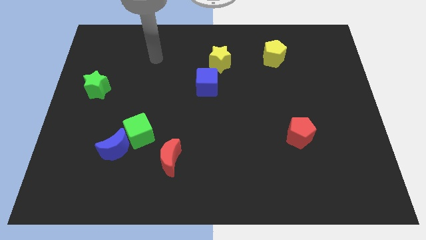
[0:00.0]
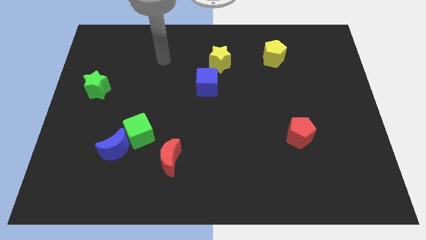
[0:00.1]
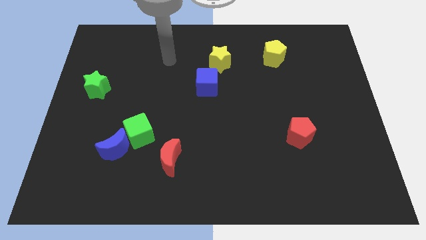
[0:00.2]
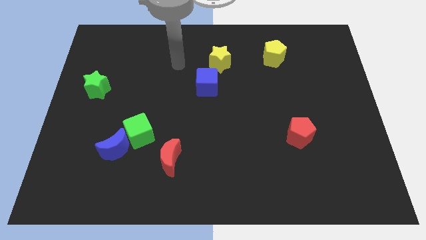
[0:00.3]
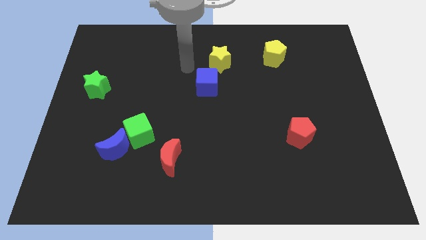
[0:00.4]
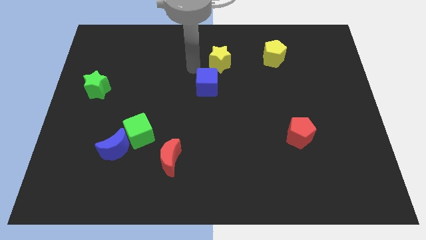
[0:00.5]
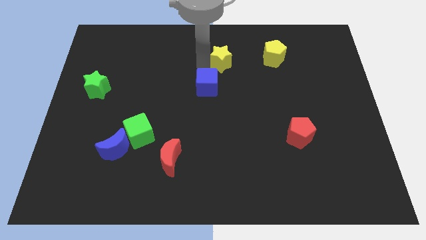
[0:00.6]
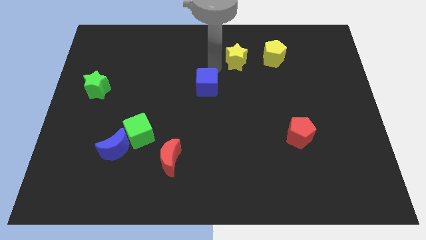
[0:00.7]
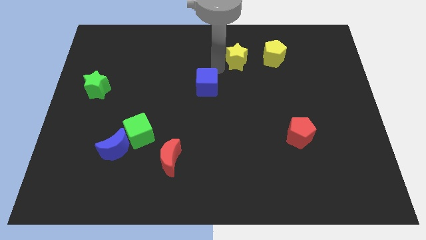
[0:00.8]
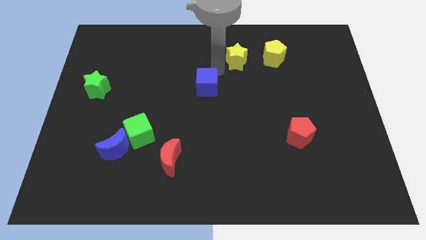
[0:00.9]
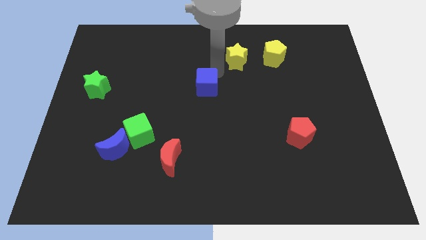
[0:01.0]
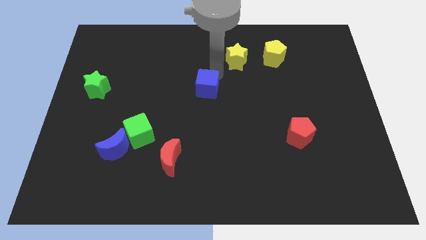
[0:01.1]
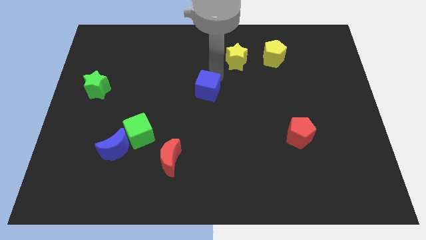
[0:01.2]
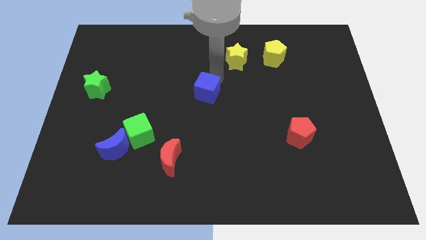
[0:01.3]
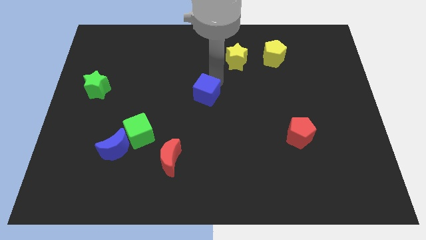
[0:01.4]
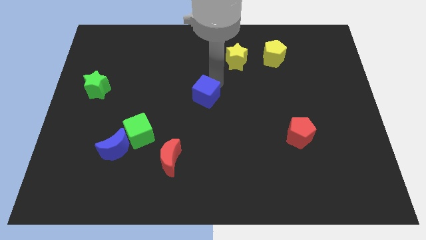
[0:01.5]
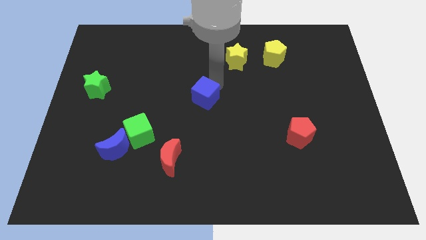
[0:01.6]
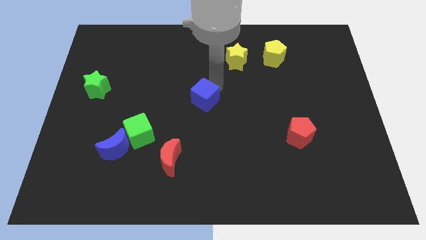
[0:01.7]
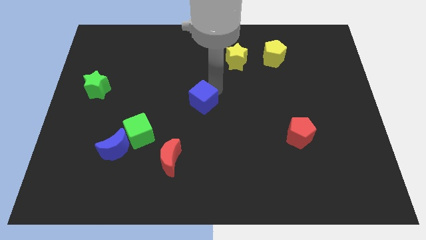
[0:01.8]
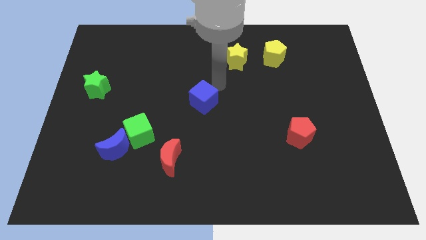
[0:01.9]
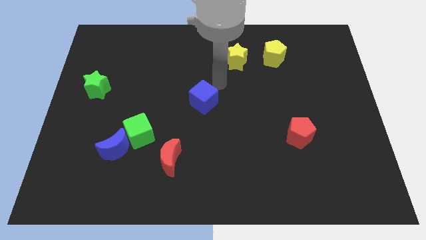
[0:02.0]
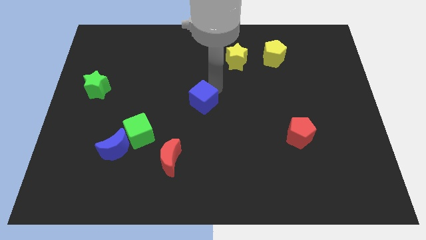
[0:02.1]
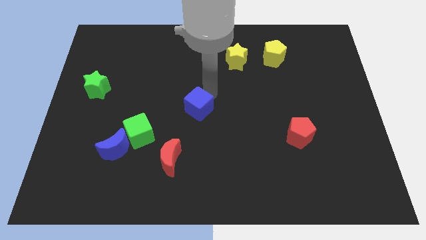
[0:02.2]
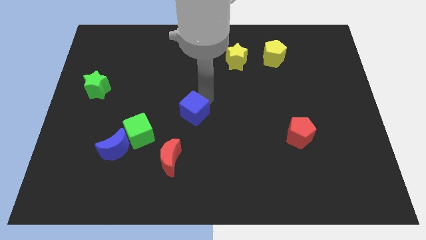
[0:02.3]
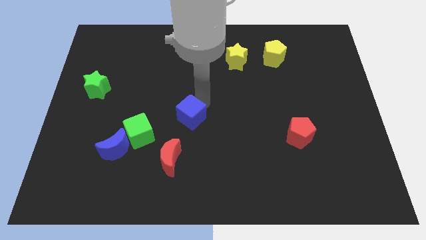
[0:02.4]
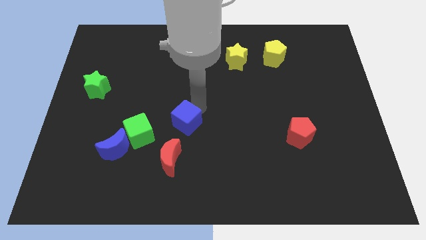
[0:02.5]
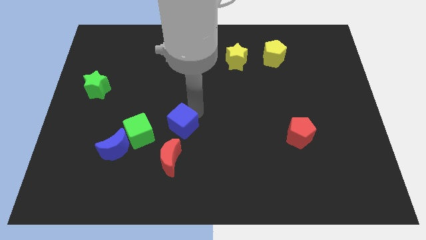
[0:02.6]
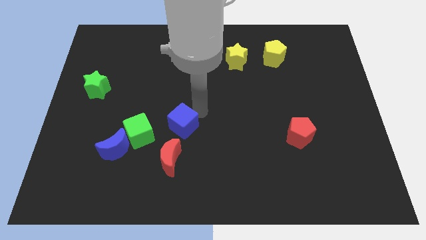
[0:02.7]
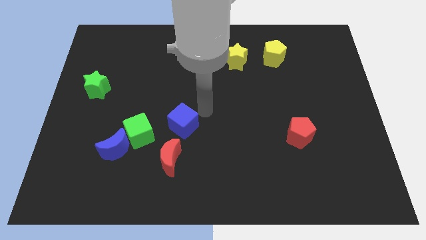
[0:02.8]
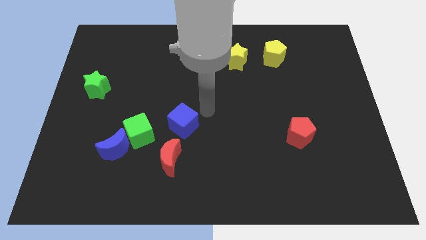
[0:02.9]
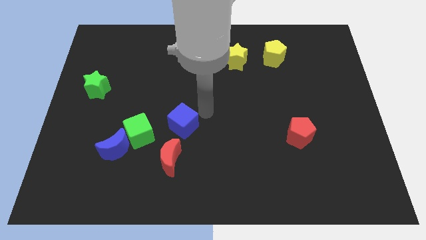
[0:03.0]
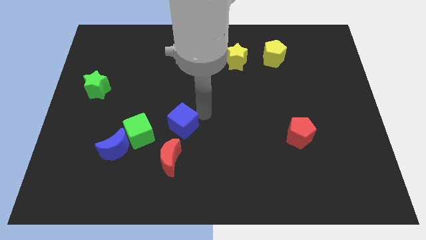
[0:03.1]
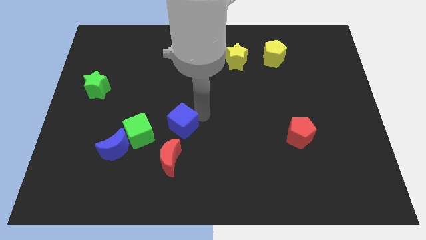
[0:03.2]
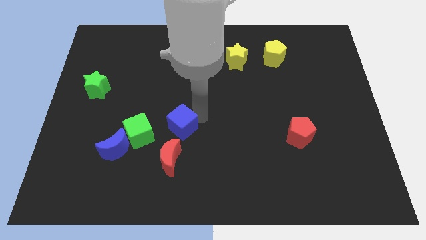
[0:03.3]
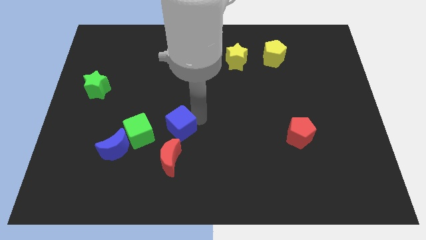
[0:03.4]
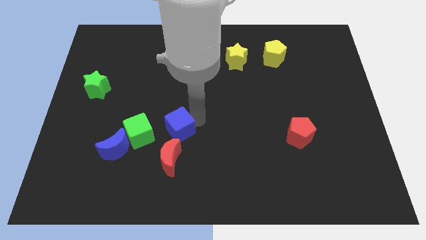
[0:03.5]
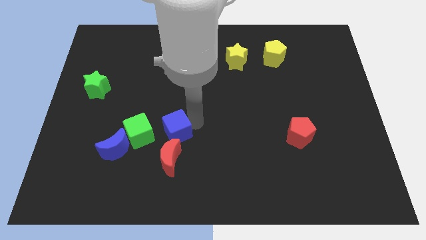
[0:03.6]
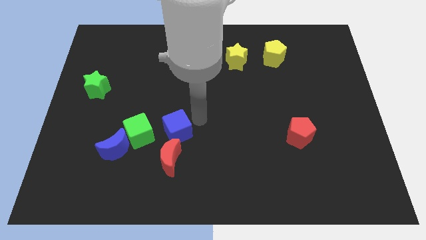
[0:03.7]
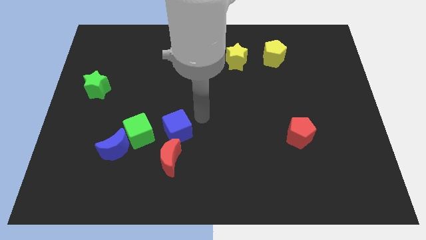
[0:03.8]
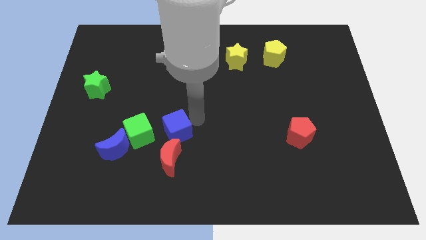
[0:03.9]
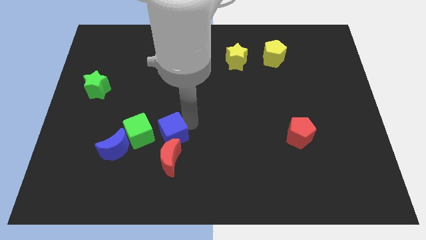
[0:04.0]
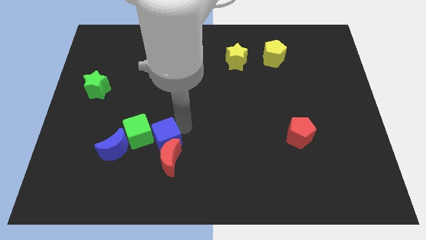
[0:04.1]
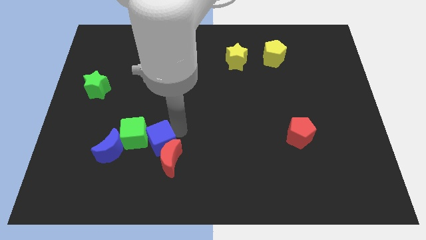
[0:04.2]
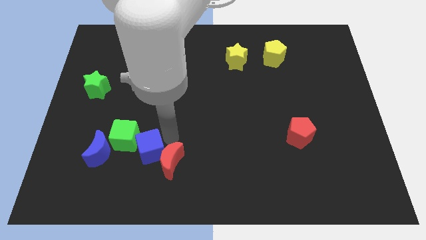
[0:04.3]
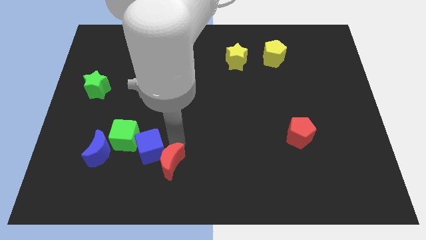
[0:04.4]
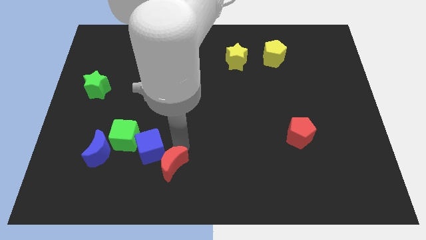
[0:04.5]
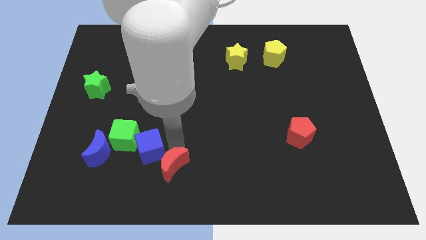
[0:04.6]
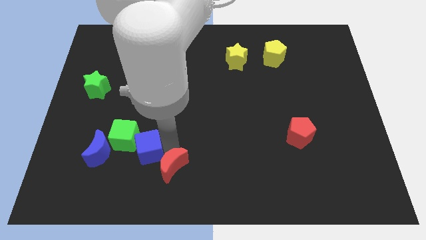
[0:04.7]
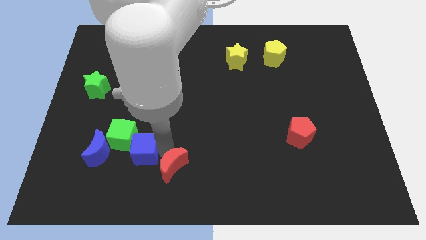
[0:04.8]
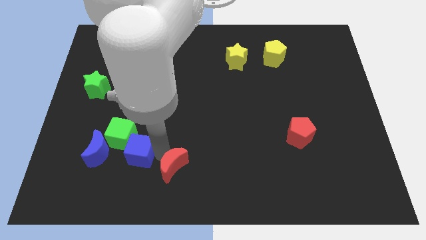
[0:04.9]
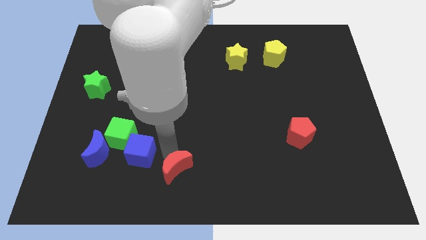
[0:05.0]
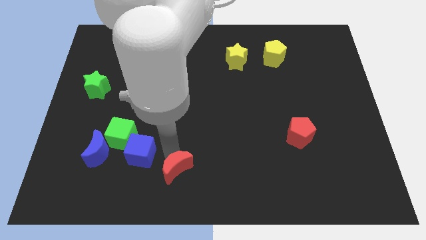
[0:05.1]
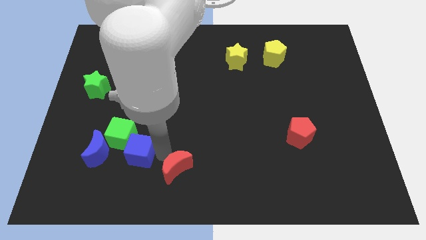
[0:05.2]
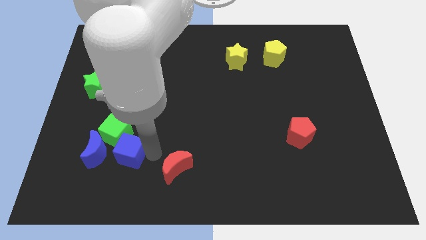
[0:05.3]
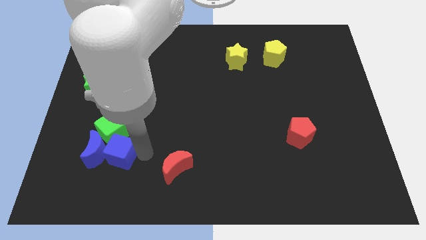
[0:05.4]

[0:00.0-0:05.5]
put the blue cube close to the blue moon

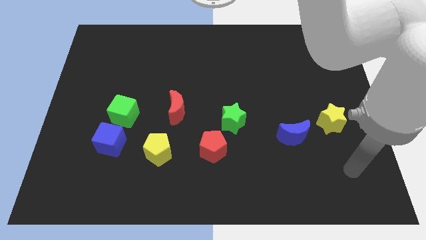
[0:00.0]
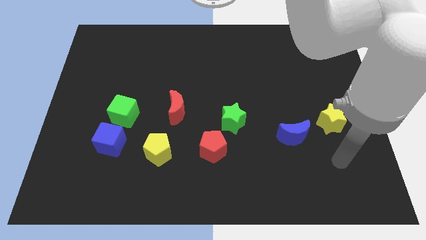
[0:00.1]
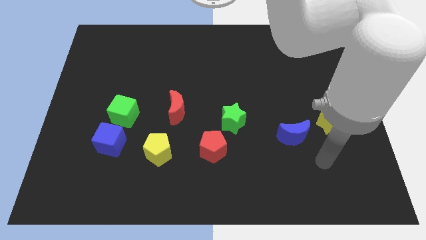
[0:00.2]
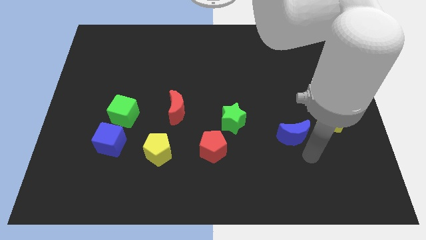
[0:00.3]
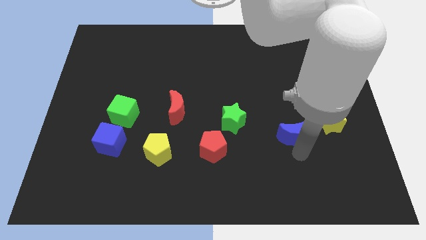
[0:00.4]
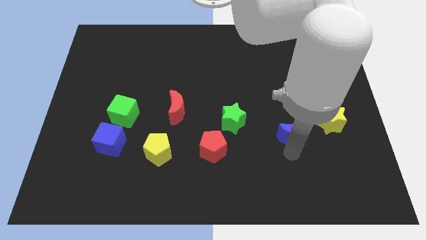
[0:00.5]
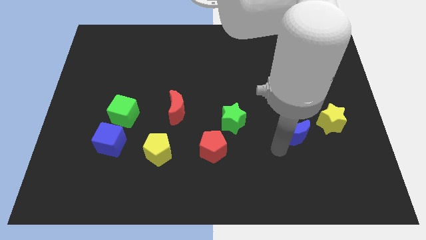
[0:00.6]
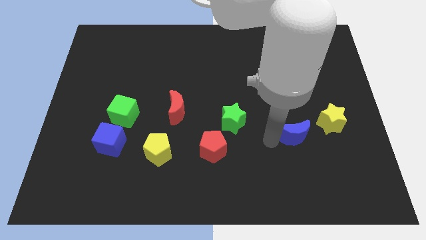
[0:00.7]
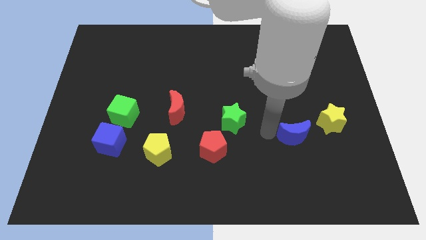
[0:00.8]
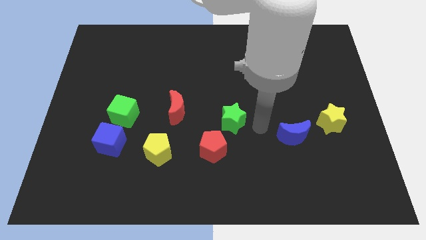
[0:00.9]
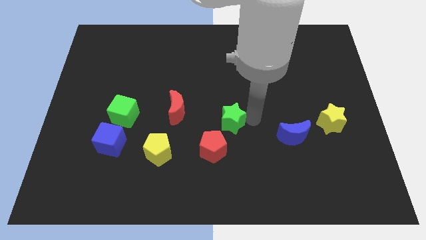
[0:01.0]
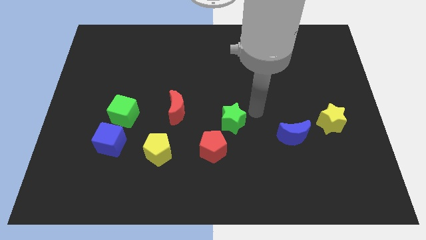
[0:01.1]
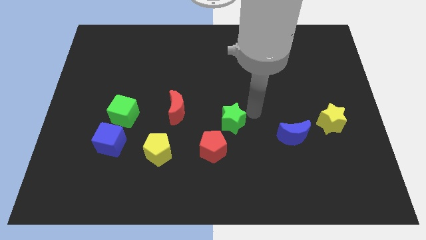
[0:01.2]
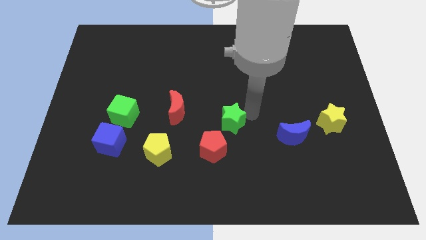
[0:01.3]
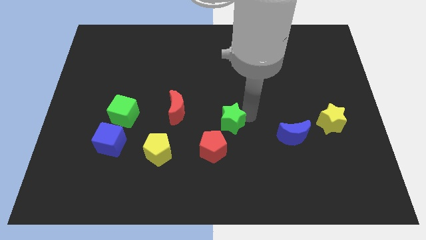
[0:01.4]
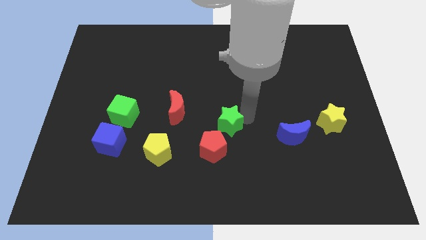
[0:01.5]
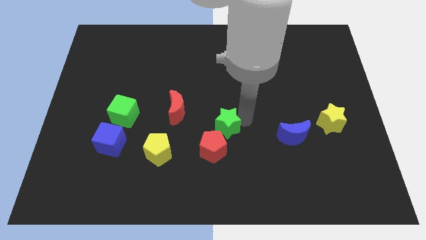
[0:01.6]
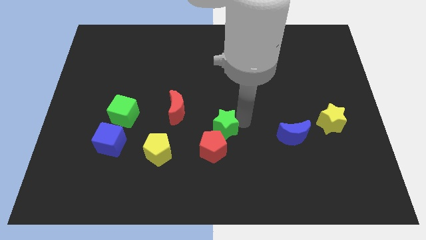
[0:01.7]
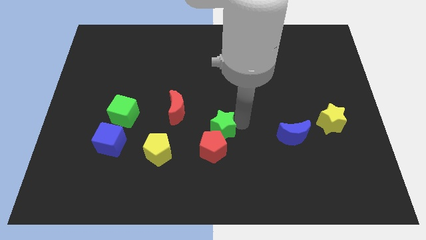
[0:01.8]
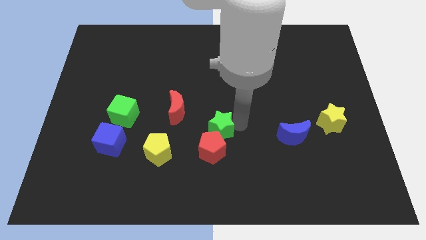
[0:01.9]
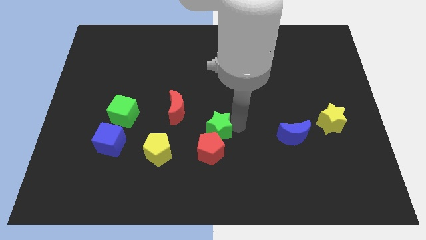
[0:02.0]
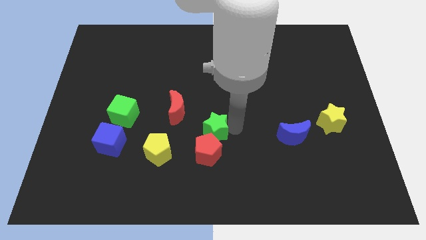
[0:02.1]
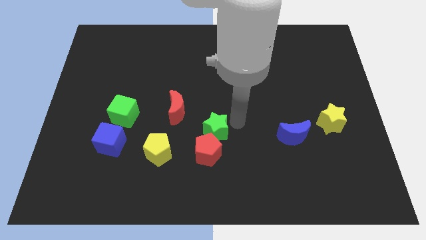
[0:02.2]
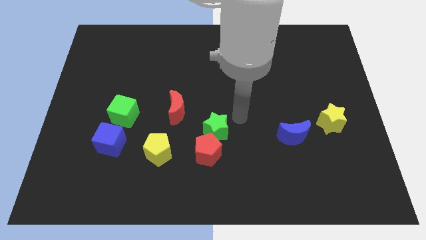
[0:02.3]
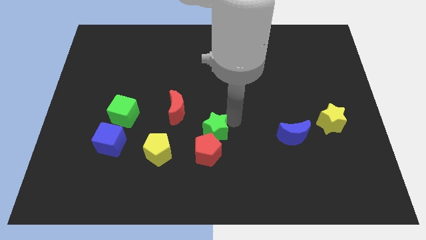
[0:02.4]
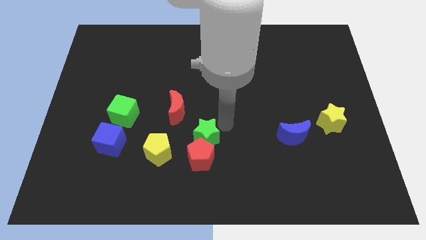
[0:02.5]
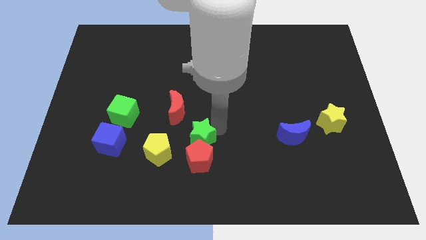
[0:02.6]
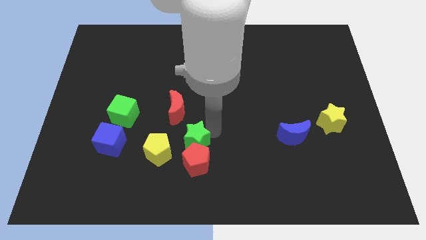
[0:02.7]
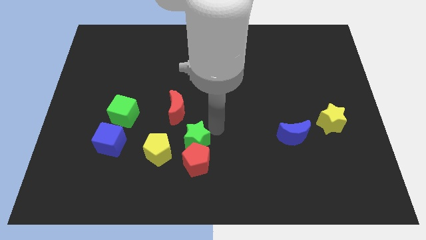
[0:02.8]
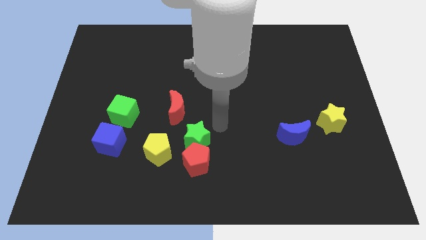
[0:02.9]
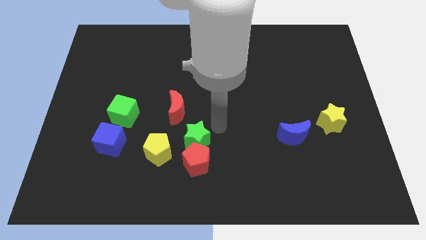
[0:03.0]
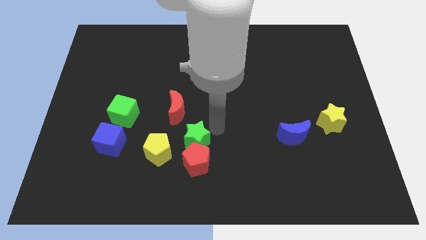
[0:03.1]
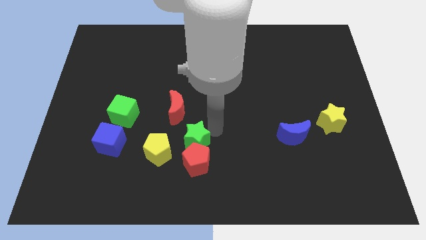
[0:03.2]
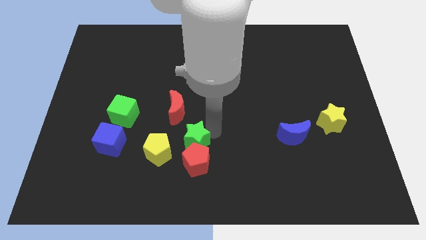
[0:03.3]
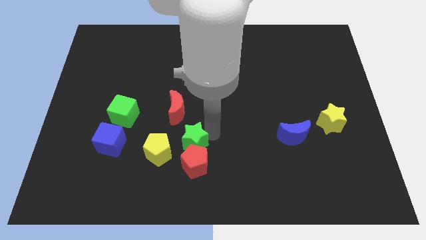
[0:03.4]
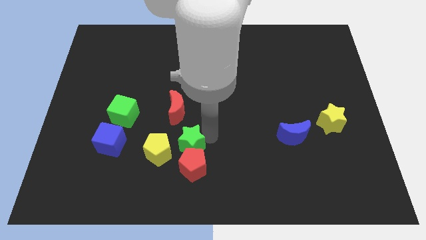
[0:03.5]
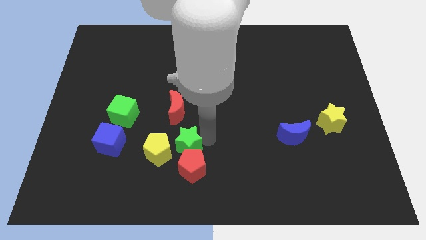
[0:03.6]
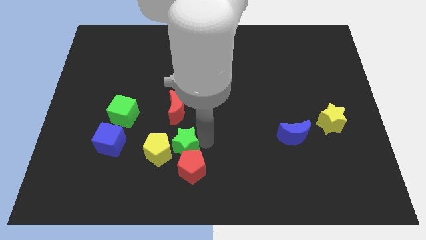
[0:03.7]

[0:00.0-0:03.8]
move the green star next to the yellow pentagon
